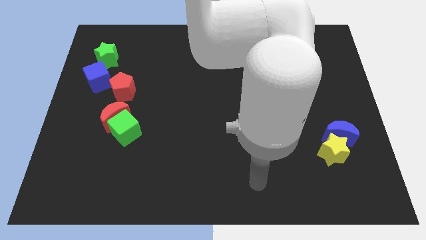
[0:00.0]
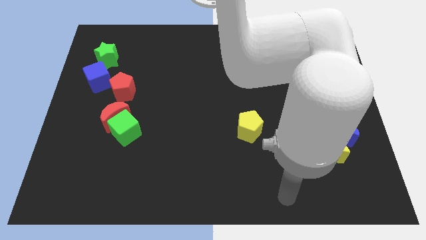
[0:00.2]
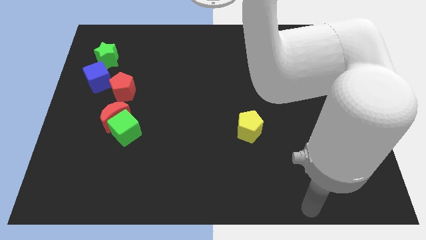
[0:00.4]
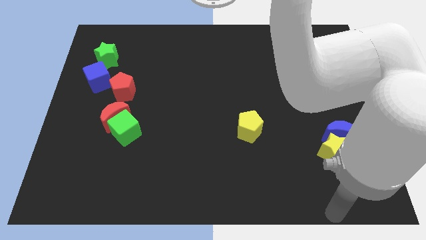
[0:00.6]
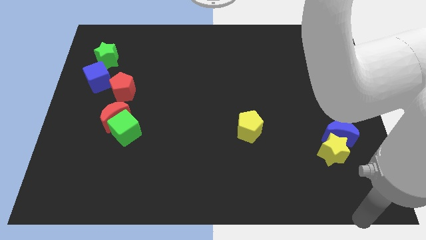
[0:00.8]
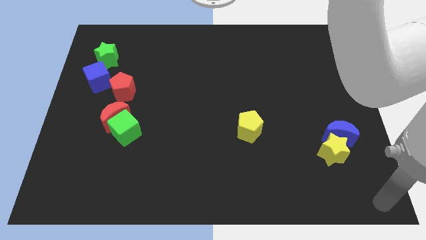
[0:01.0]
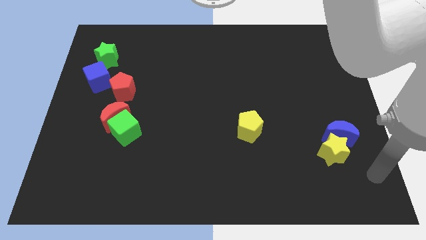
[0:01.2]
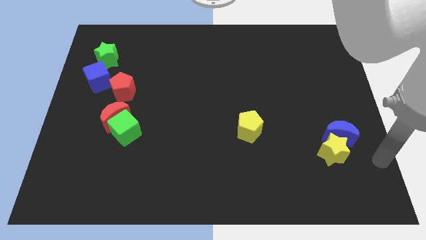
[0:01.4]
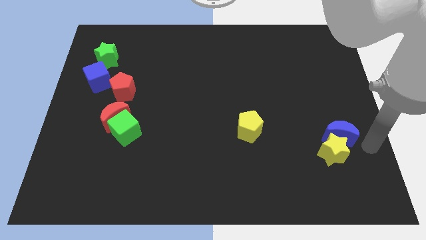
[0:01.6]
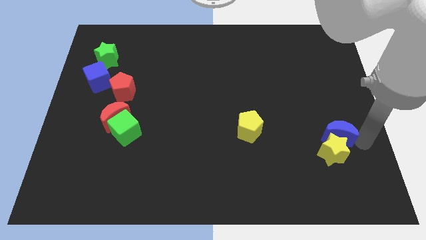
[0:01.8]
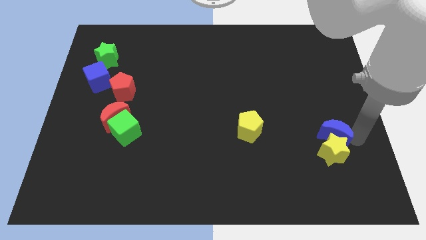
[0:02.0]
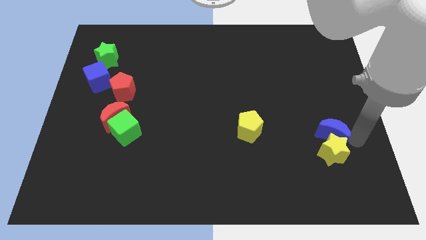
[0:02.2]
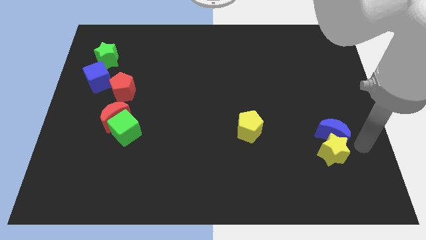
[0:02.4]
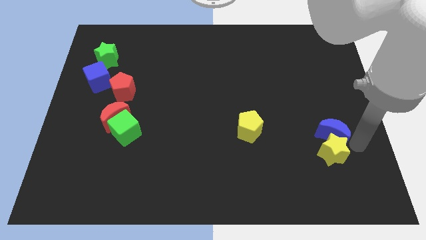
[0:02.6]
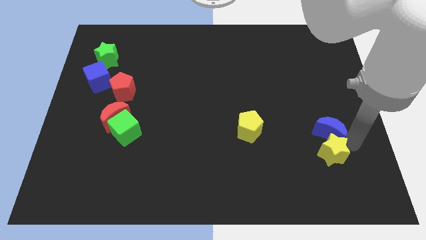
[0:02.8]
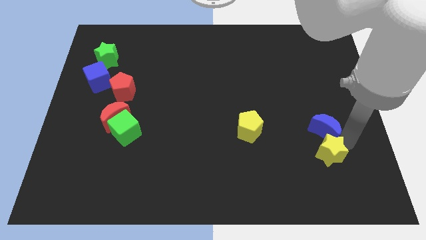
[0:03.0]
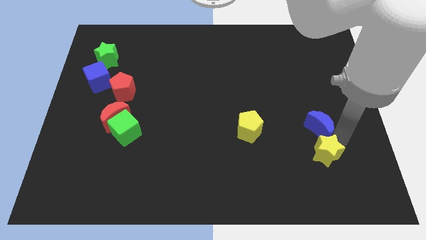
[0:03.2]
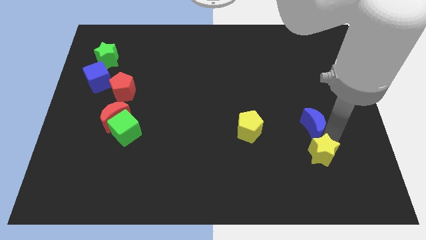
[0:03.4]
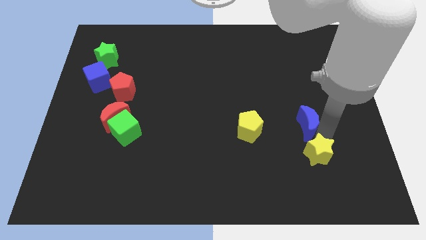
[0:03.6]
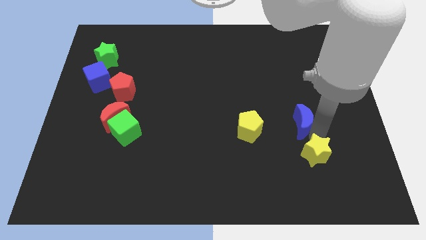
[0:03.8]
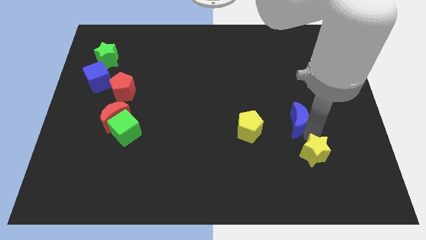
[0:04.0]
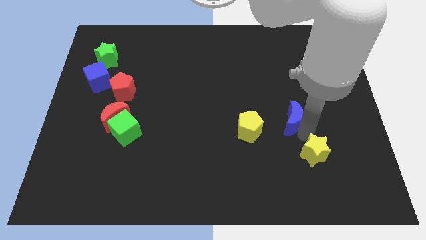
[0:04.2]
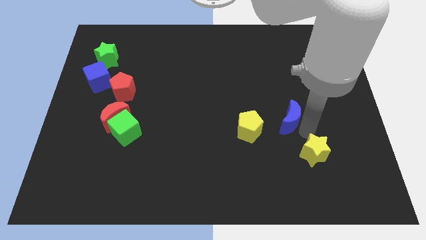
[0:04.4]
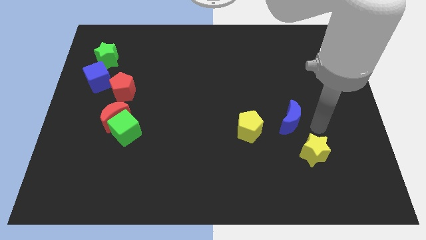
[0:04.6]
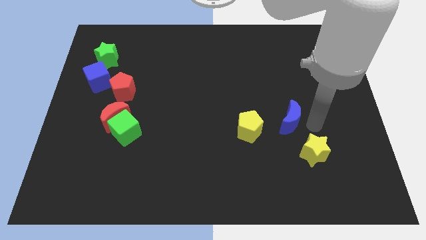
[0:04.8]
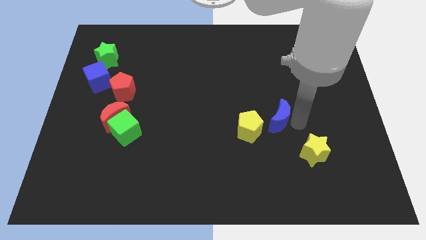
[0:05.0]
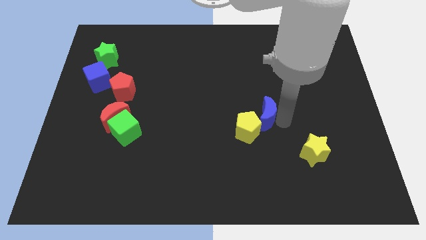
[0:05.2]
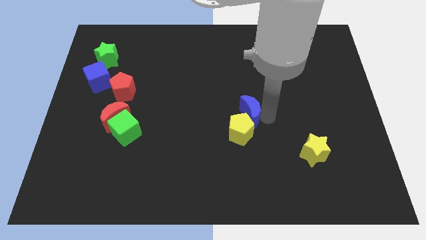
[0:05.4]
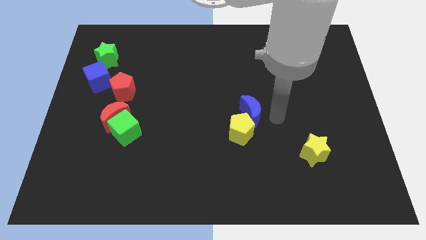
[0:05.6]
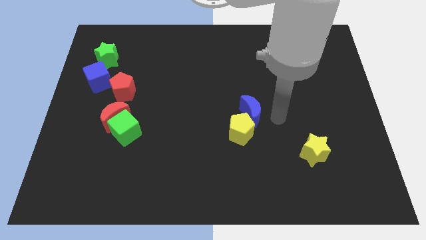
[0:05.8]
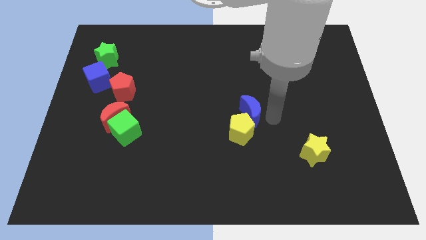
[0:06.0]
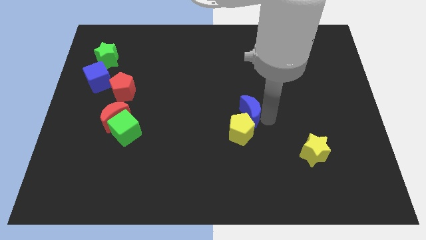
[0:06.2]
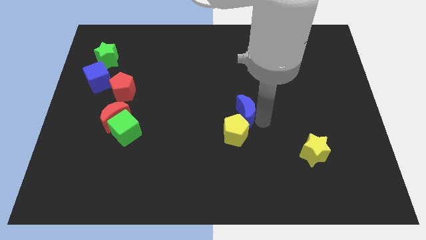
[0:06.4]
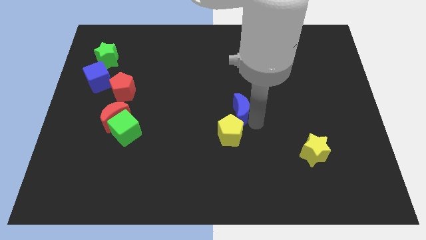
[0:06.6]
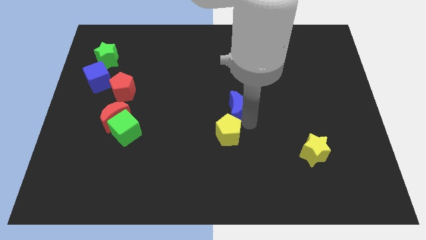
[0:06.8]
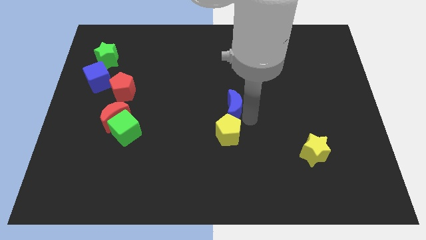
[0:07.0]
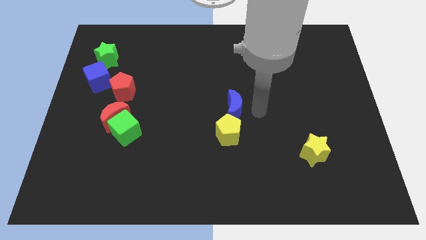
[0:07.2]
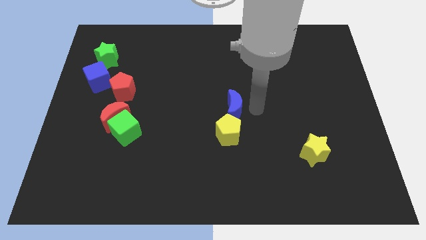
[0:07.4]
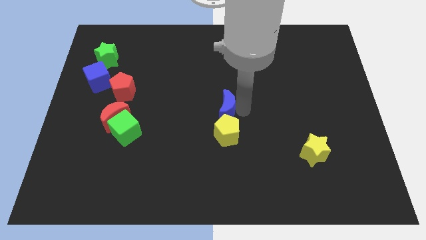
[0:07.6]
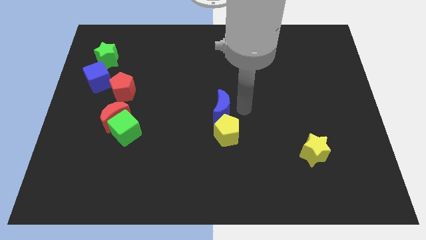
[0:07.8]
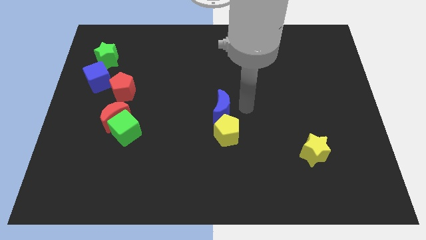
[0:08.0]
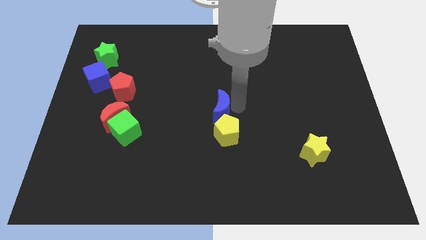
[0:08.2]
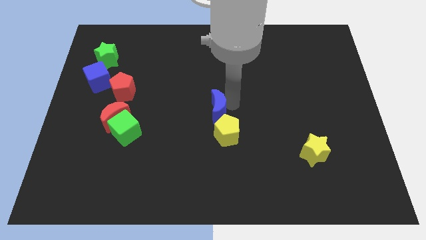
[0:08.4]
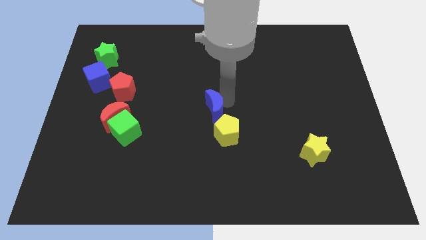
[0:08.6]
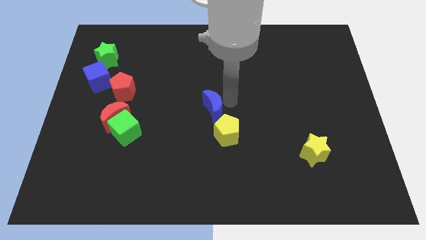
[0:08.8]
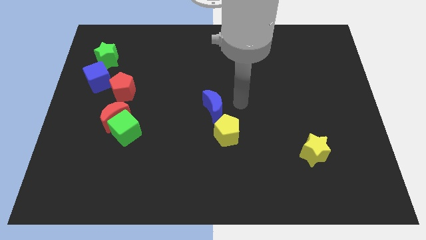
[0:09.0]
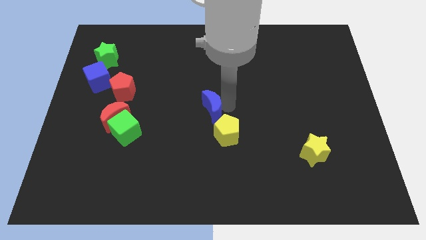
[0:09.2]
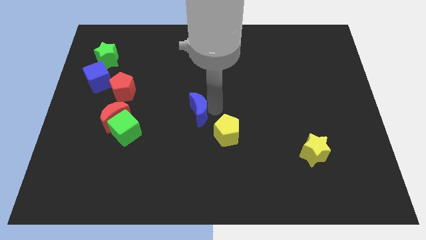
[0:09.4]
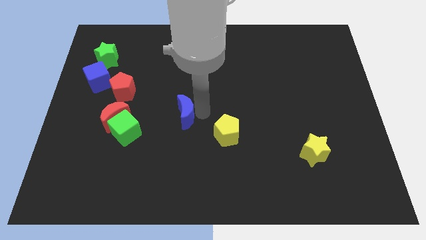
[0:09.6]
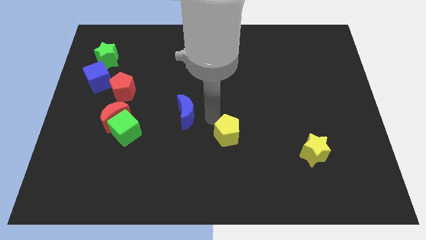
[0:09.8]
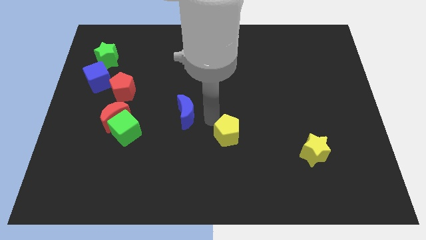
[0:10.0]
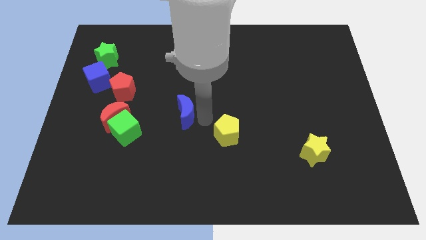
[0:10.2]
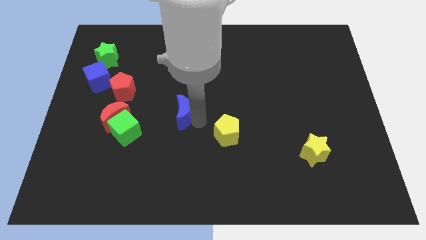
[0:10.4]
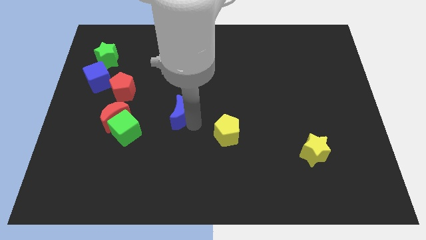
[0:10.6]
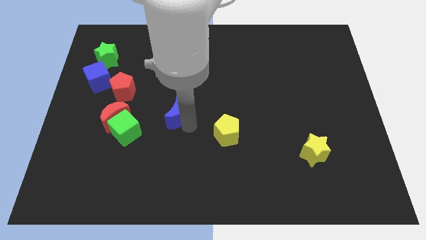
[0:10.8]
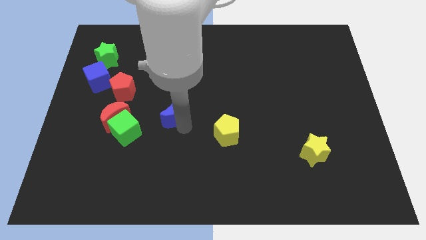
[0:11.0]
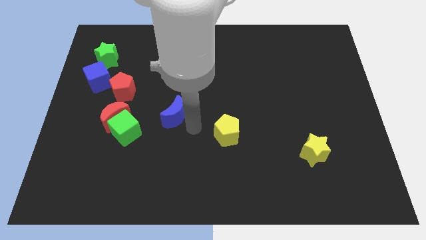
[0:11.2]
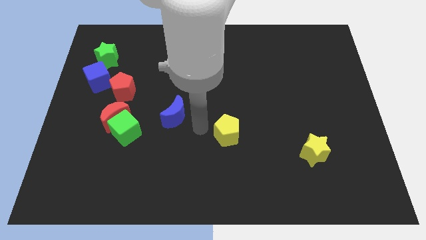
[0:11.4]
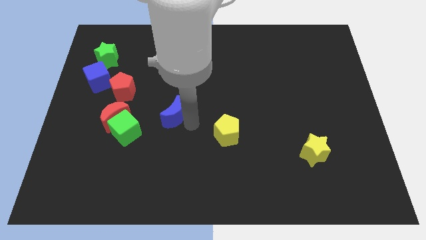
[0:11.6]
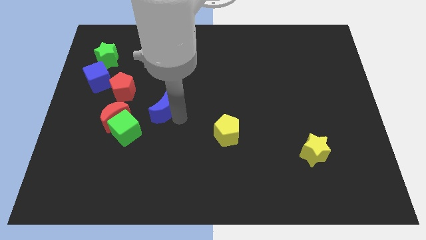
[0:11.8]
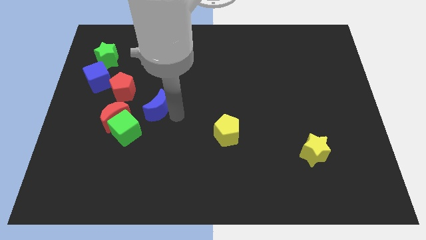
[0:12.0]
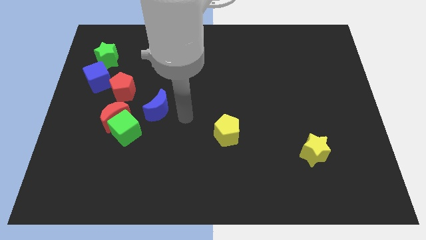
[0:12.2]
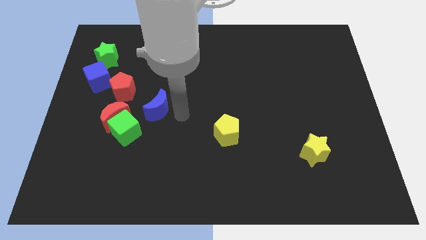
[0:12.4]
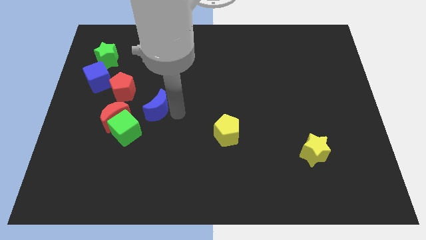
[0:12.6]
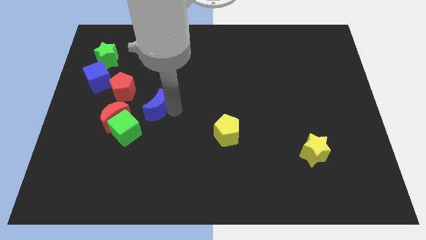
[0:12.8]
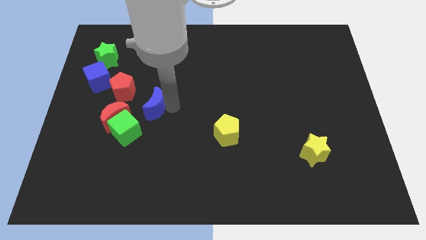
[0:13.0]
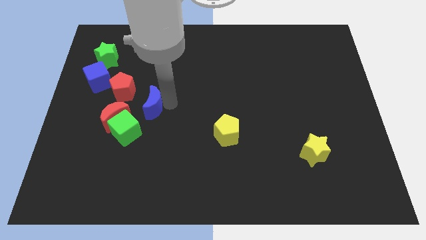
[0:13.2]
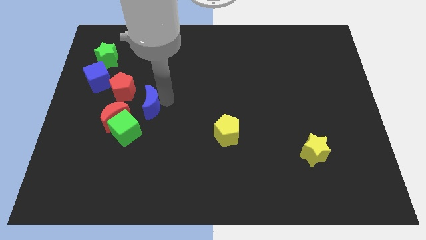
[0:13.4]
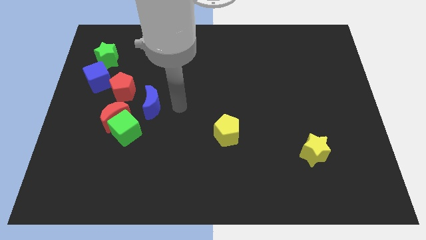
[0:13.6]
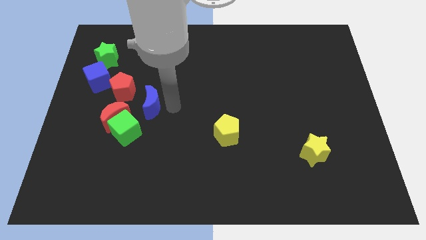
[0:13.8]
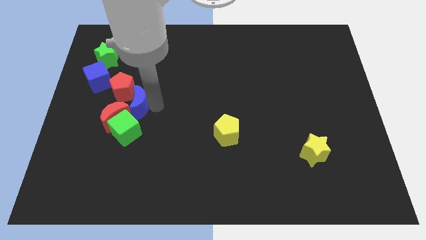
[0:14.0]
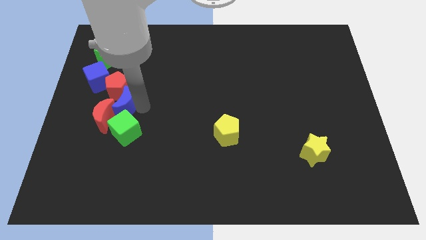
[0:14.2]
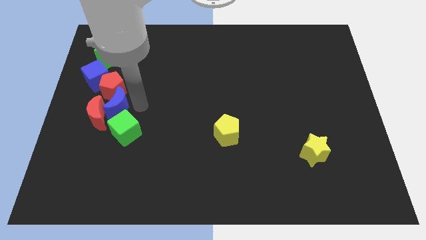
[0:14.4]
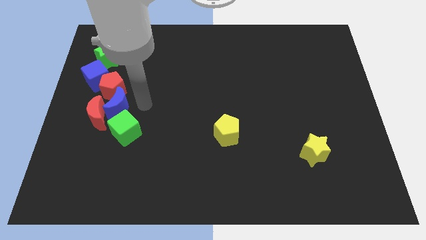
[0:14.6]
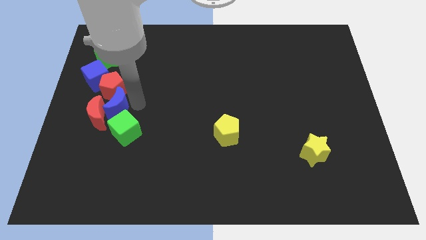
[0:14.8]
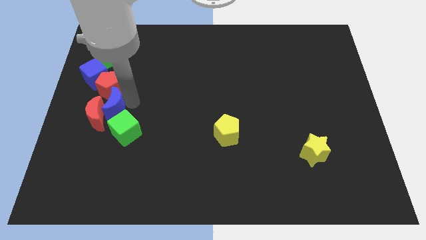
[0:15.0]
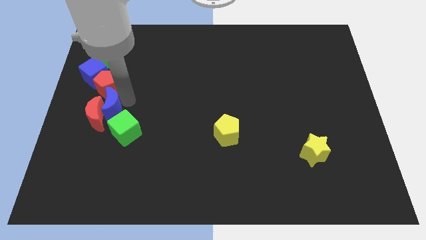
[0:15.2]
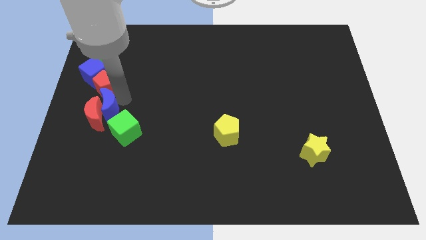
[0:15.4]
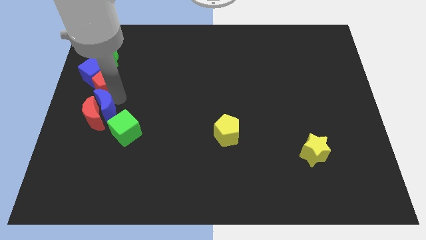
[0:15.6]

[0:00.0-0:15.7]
push the blue moon to the center left

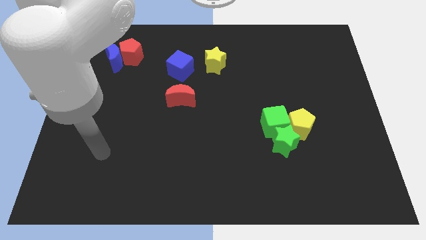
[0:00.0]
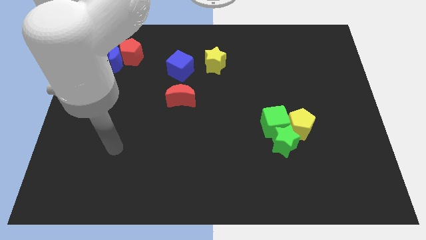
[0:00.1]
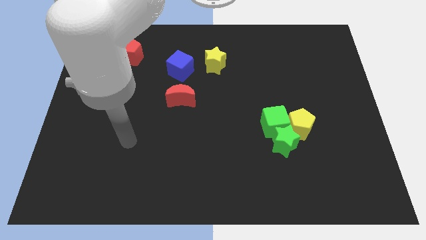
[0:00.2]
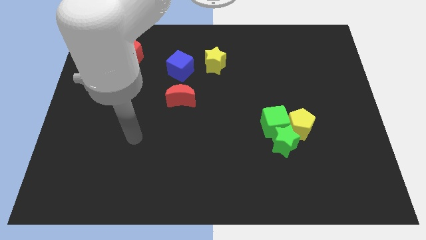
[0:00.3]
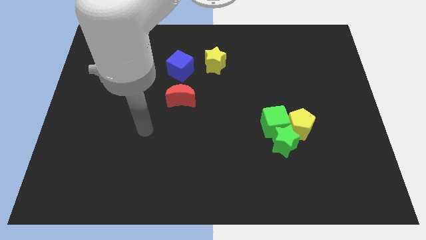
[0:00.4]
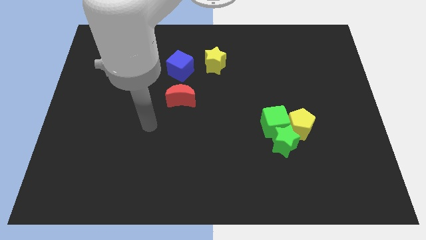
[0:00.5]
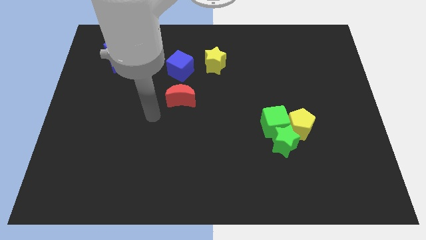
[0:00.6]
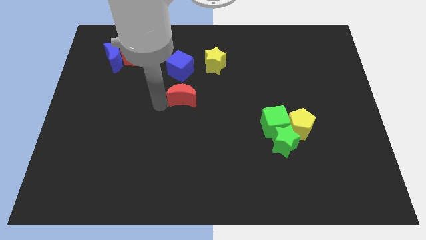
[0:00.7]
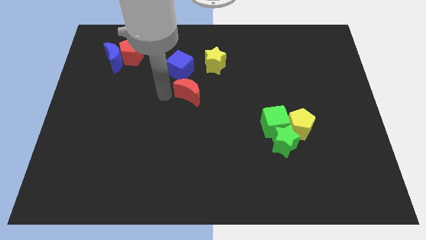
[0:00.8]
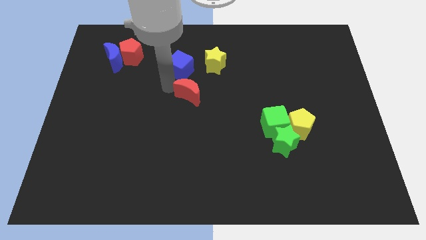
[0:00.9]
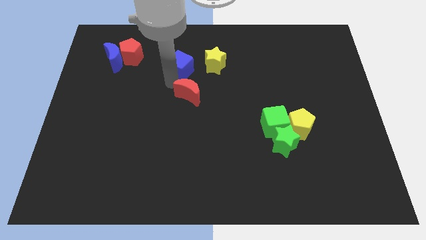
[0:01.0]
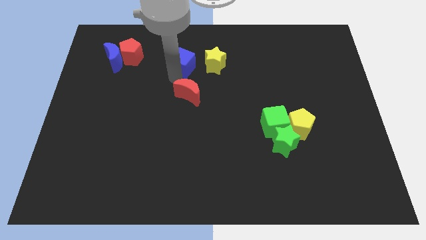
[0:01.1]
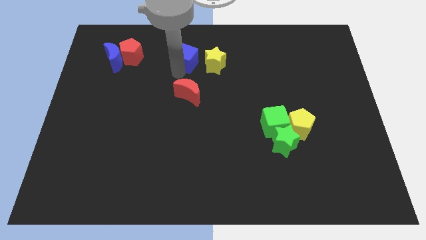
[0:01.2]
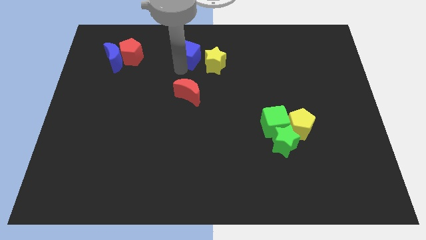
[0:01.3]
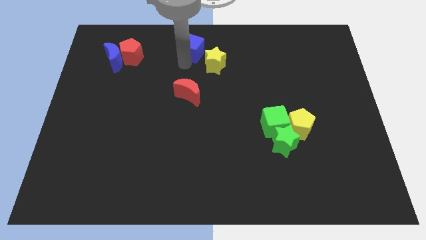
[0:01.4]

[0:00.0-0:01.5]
push the blue cube to the top side
